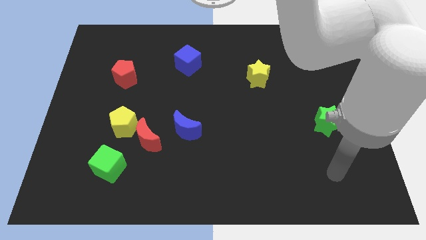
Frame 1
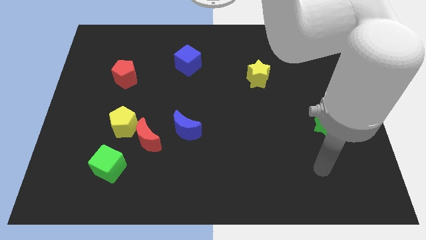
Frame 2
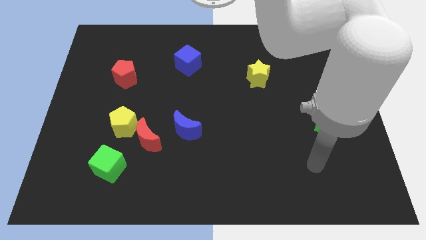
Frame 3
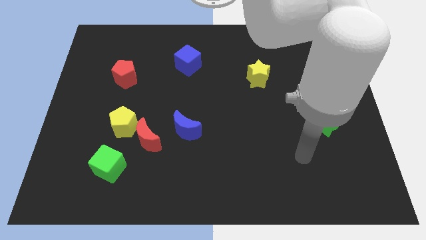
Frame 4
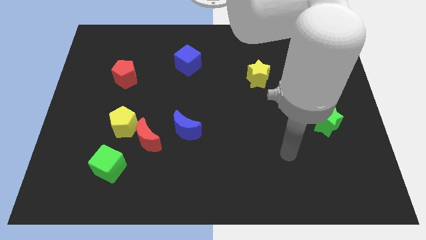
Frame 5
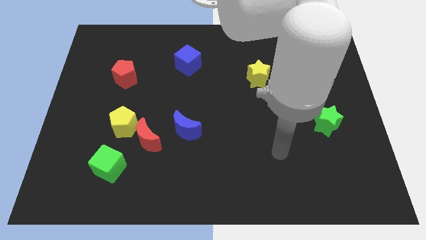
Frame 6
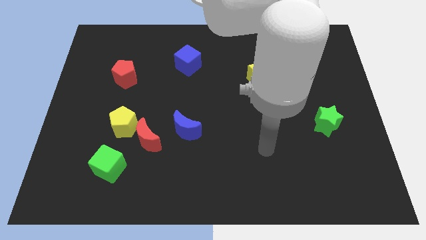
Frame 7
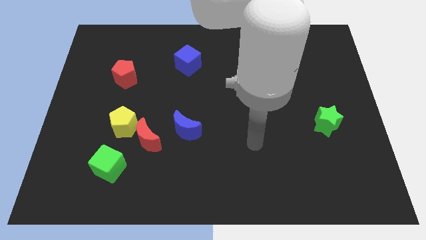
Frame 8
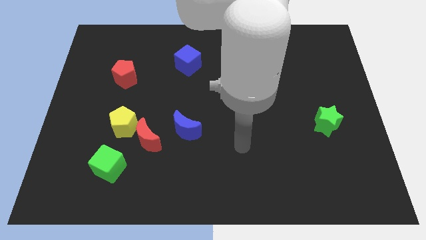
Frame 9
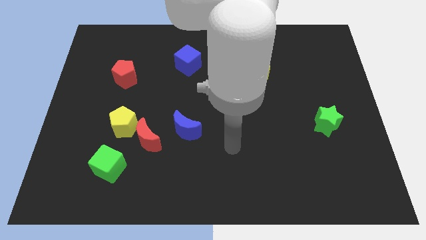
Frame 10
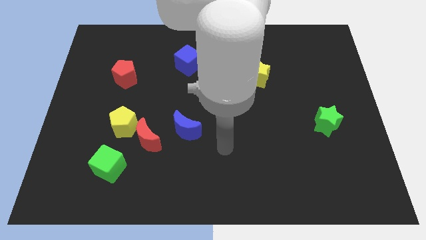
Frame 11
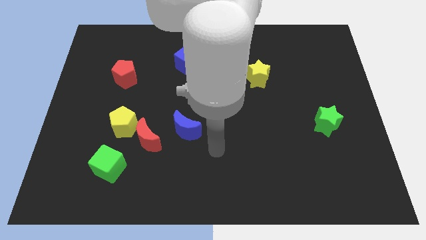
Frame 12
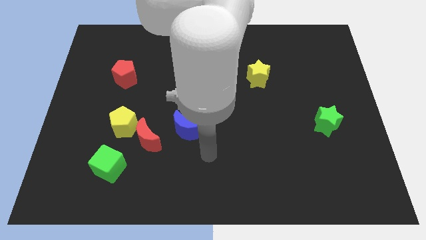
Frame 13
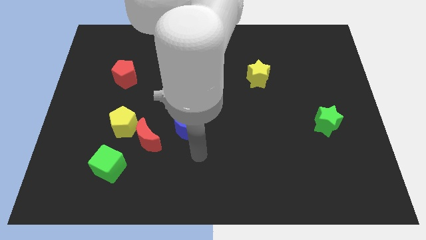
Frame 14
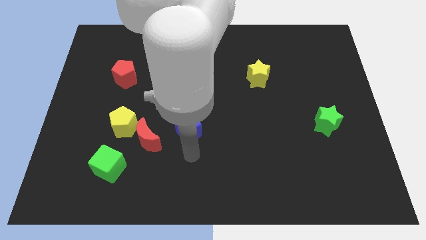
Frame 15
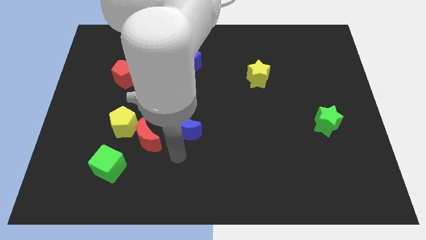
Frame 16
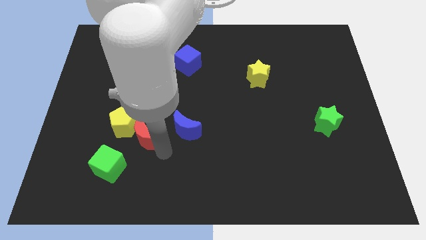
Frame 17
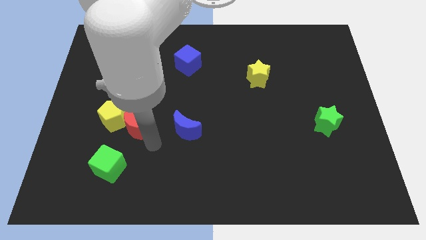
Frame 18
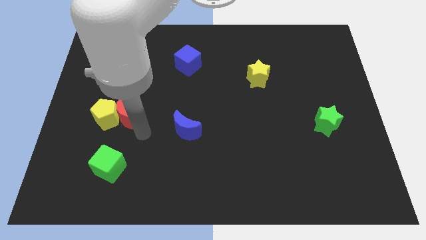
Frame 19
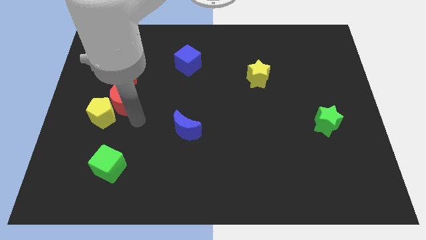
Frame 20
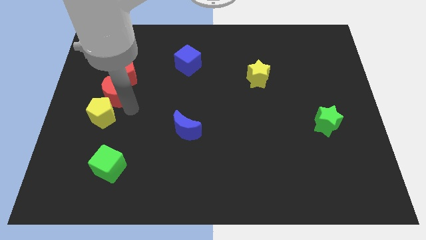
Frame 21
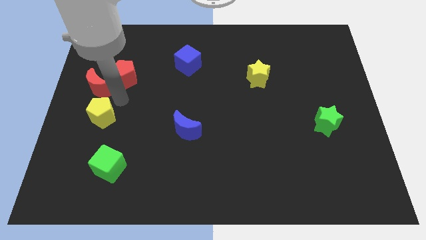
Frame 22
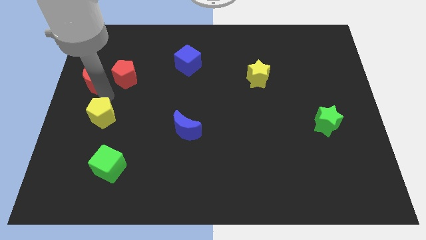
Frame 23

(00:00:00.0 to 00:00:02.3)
move the yellow pentagon away from the red moon

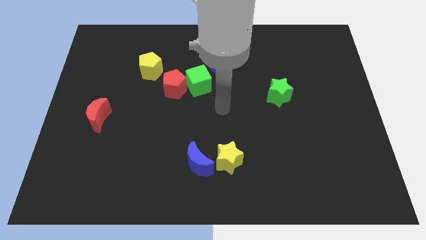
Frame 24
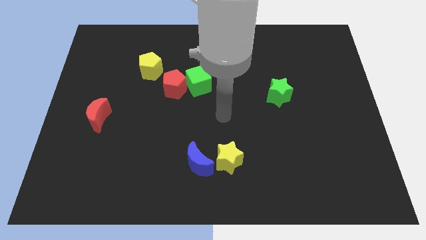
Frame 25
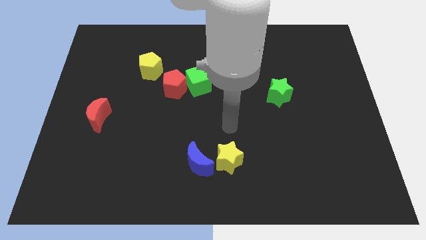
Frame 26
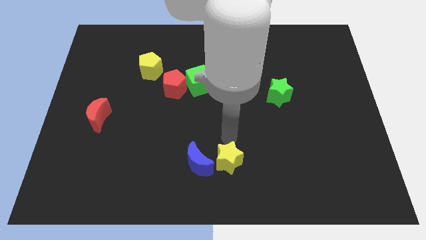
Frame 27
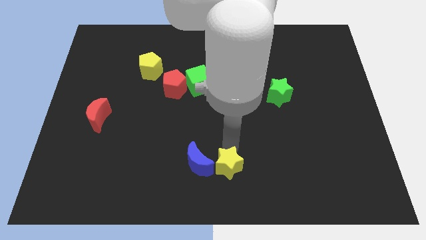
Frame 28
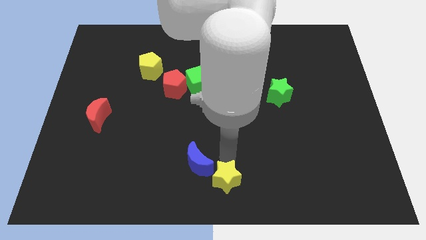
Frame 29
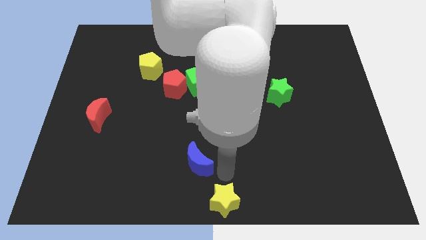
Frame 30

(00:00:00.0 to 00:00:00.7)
move the blue moon away from the yellow star

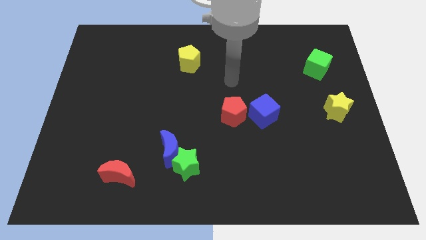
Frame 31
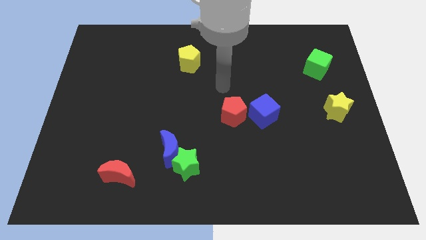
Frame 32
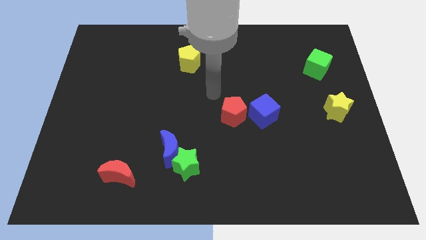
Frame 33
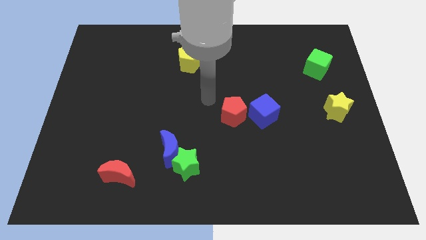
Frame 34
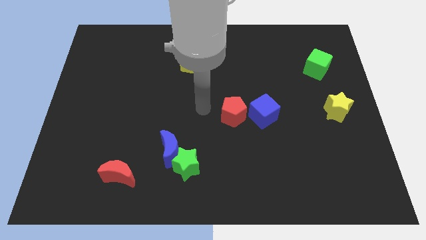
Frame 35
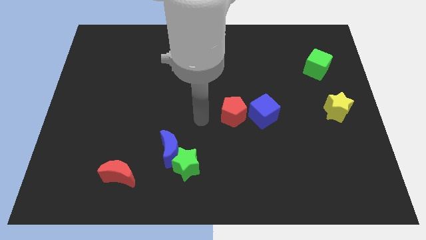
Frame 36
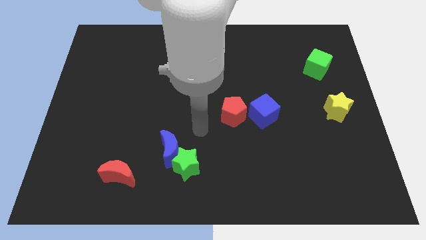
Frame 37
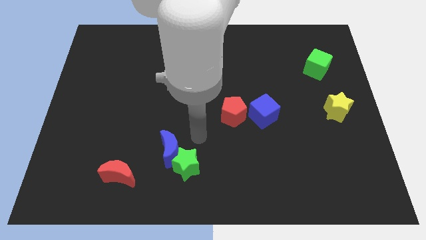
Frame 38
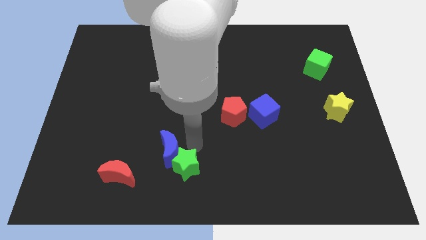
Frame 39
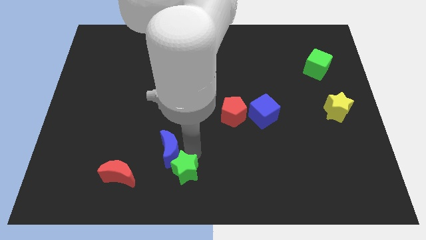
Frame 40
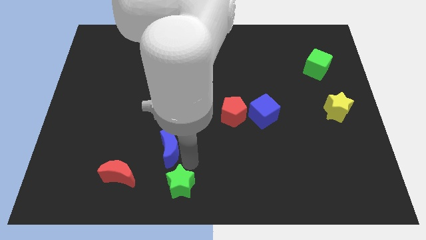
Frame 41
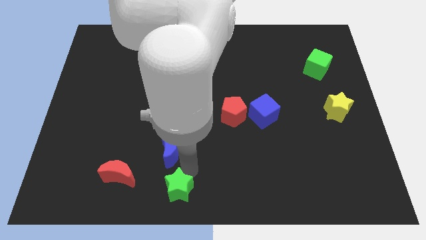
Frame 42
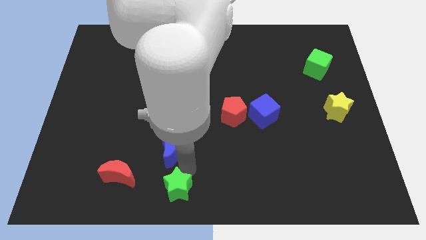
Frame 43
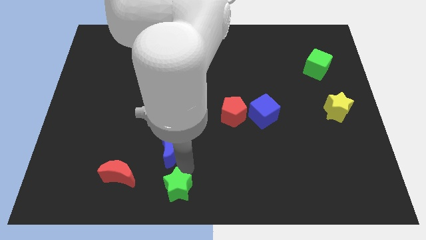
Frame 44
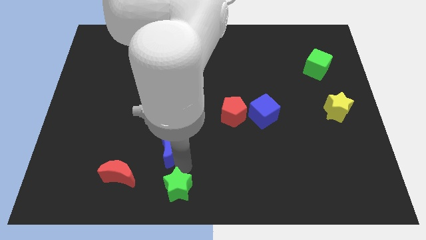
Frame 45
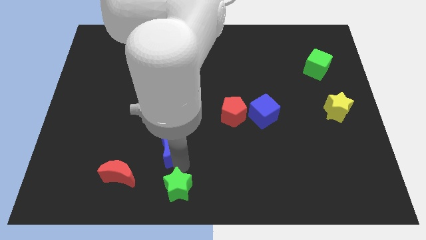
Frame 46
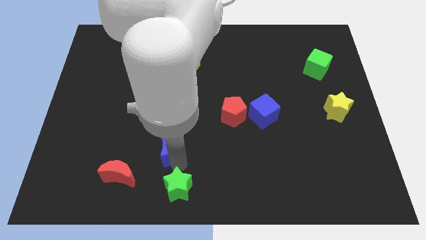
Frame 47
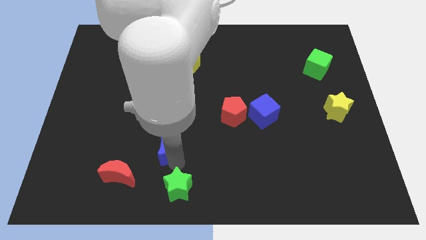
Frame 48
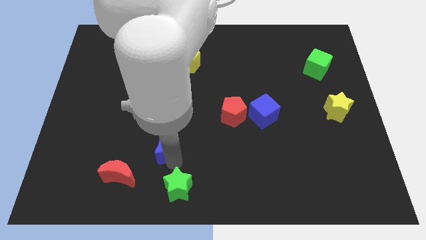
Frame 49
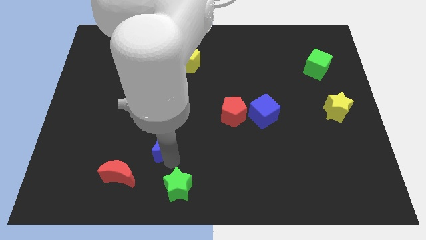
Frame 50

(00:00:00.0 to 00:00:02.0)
move the blue moon away from the green star

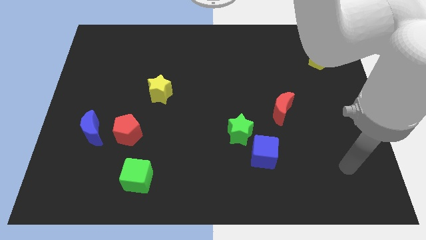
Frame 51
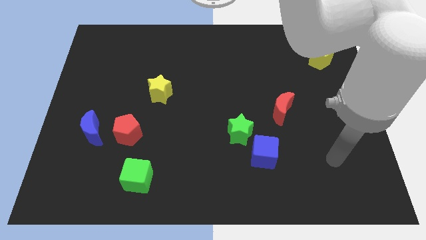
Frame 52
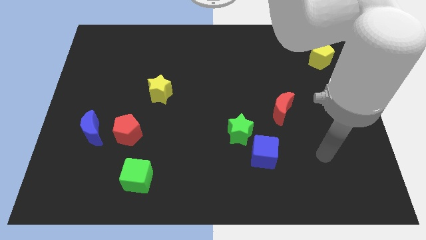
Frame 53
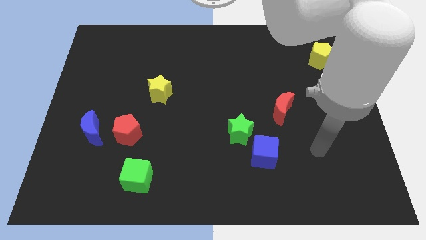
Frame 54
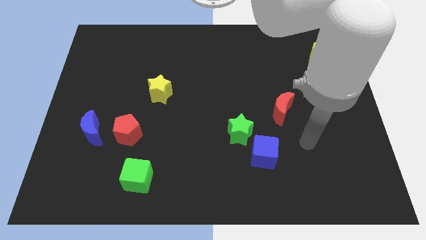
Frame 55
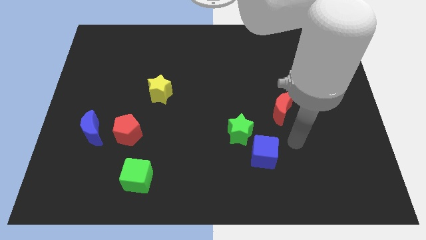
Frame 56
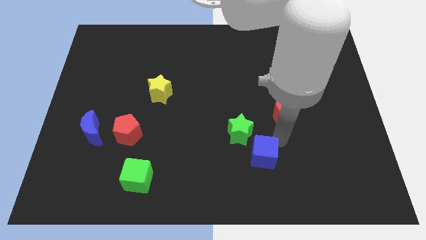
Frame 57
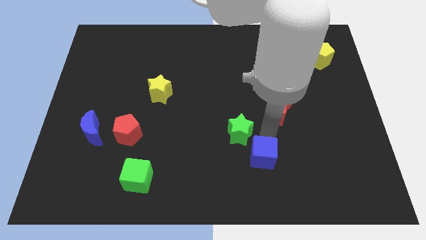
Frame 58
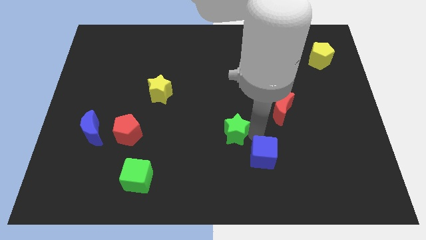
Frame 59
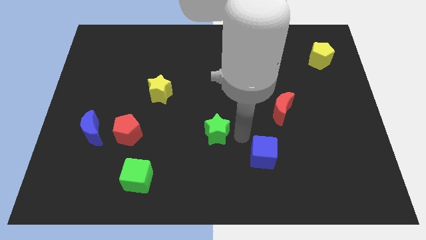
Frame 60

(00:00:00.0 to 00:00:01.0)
move the blue cube away from the green star

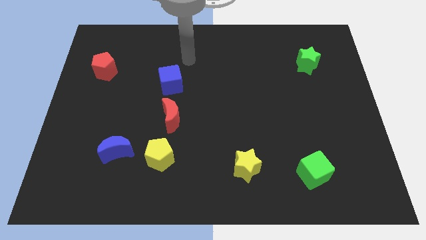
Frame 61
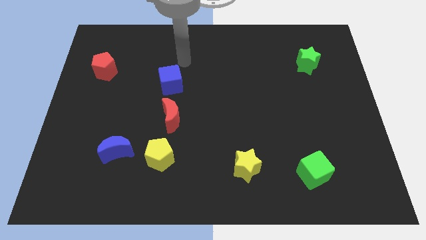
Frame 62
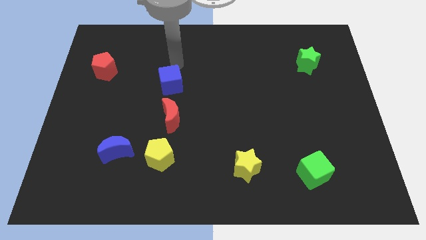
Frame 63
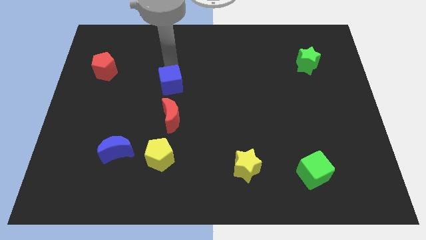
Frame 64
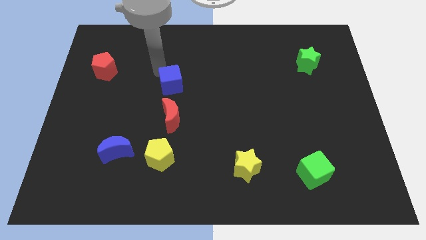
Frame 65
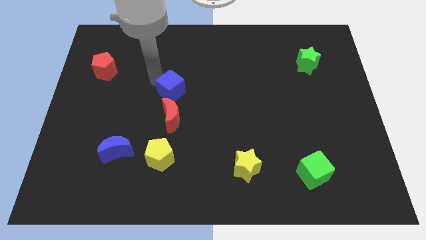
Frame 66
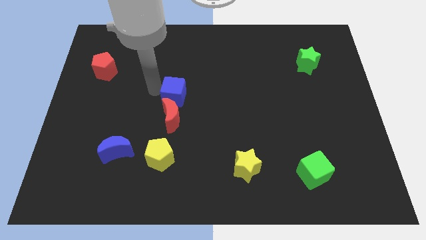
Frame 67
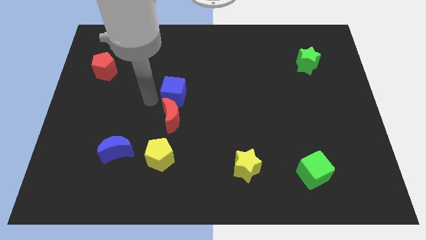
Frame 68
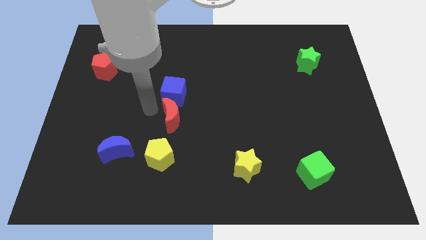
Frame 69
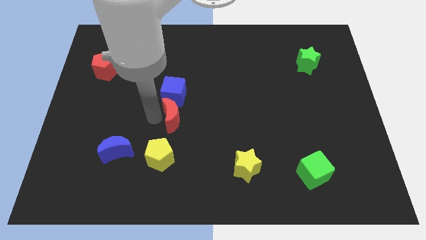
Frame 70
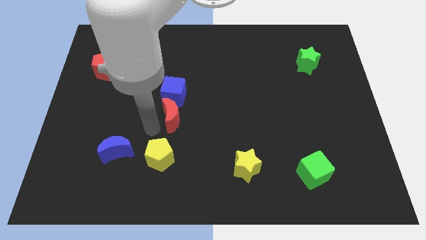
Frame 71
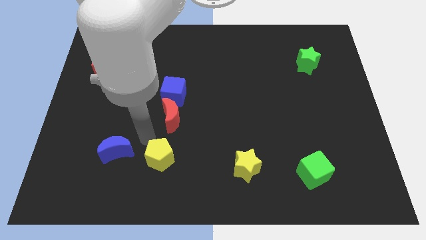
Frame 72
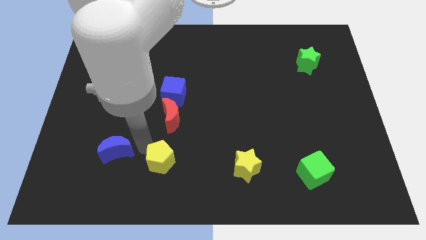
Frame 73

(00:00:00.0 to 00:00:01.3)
move the blue moon away from the yellow pentagon

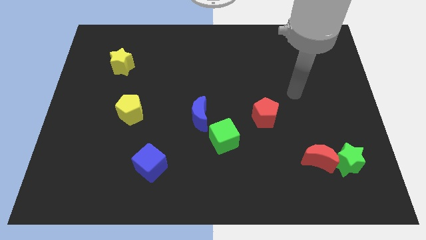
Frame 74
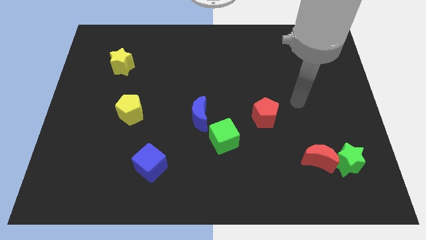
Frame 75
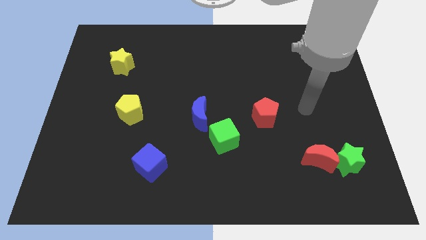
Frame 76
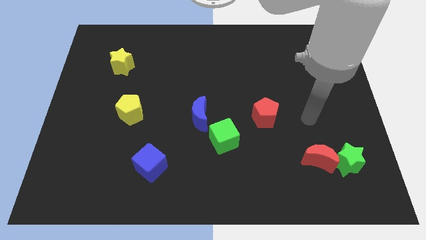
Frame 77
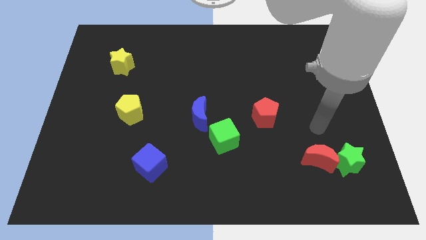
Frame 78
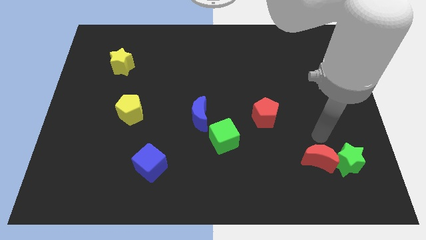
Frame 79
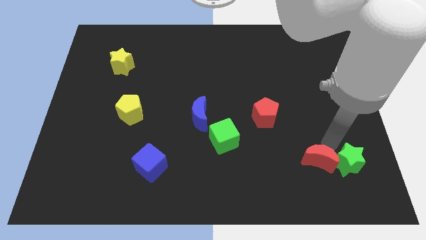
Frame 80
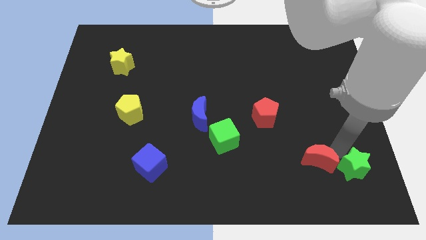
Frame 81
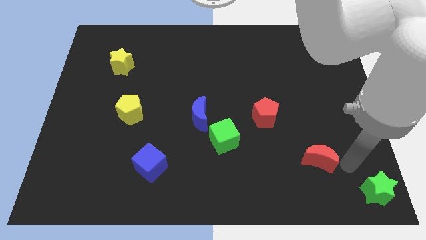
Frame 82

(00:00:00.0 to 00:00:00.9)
move the red moon away from the green star

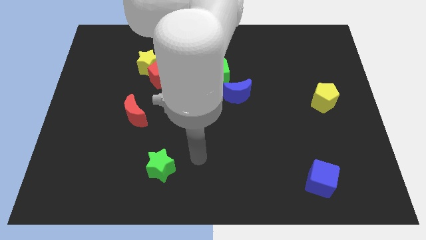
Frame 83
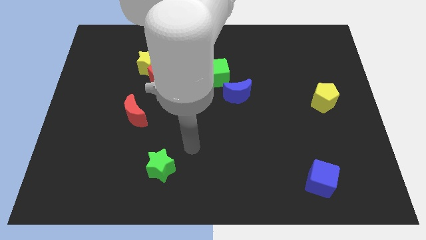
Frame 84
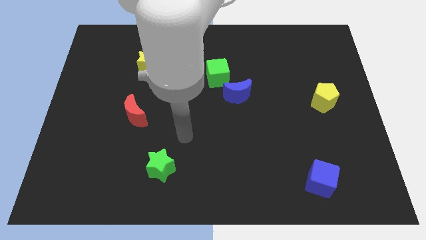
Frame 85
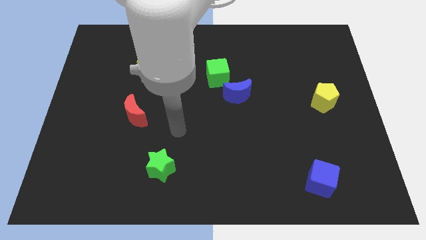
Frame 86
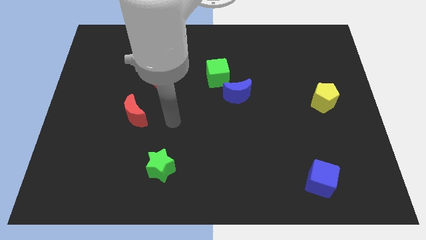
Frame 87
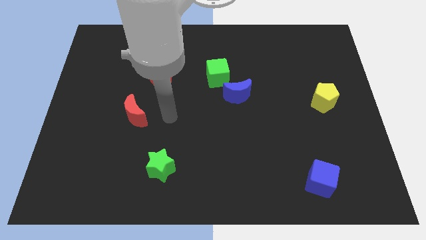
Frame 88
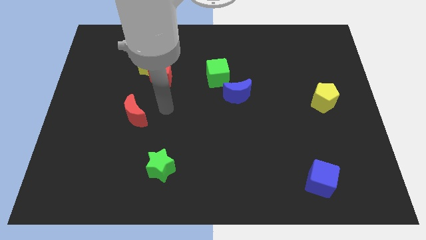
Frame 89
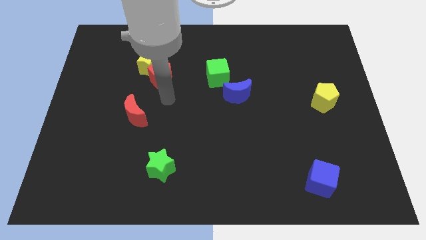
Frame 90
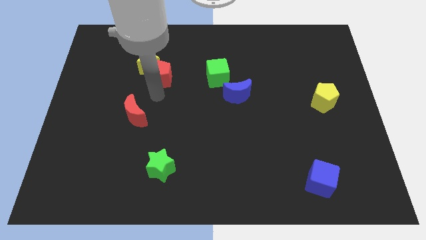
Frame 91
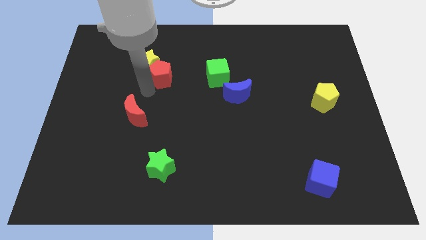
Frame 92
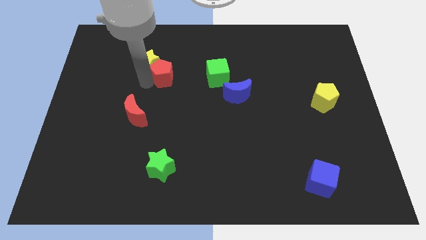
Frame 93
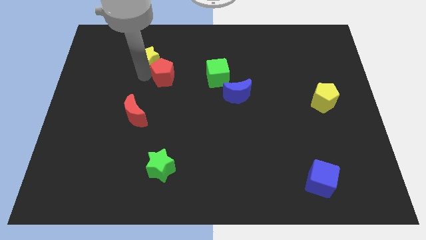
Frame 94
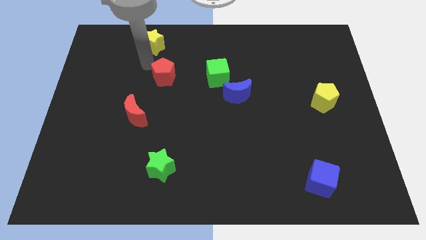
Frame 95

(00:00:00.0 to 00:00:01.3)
pull the red pentagon apart from the yellow star

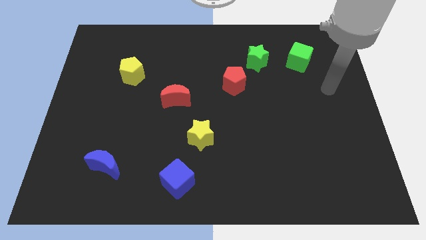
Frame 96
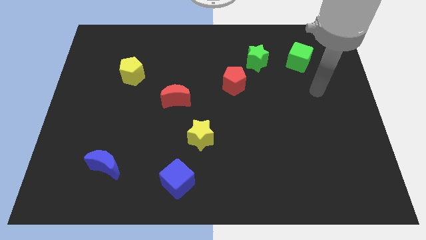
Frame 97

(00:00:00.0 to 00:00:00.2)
separate the red pentagon from the green star
